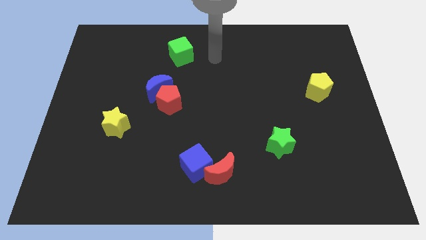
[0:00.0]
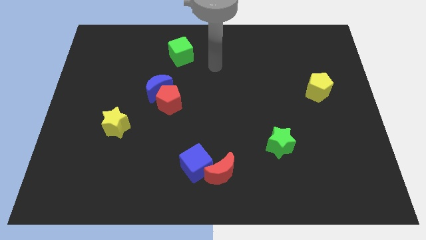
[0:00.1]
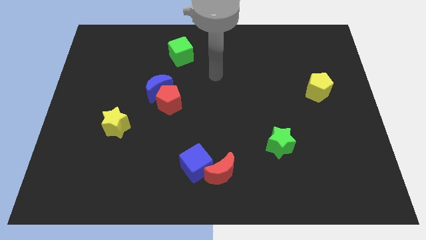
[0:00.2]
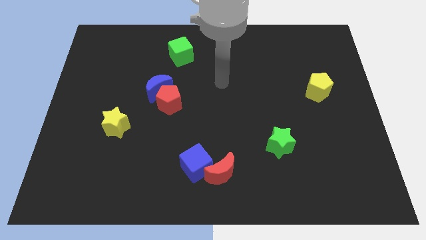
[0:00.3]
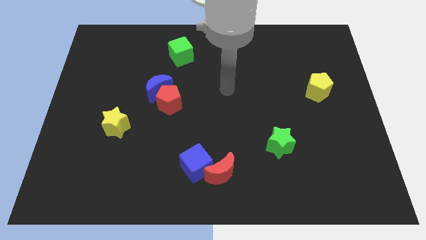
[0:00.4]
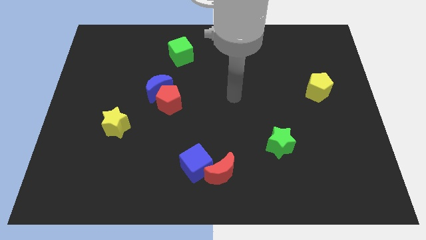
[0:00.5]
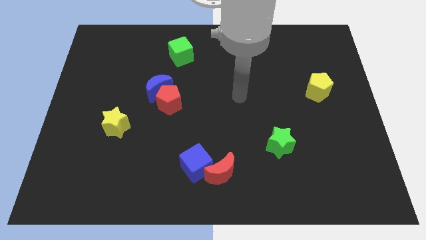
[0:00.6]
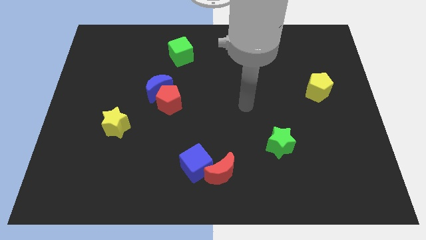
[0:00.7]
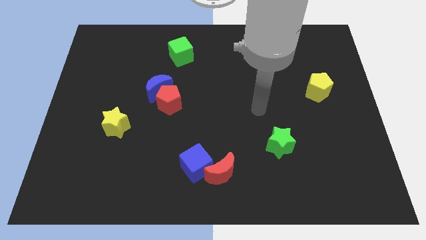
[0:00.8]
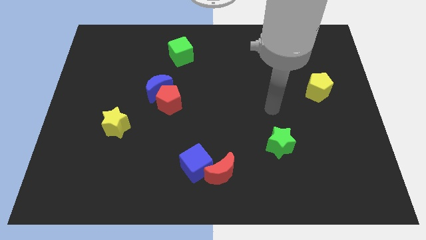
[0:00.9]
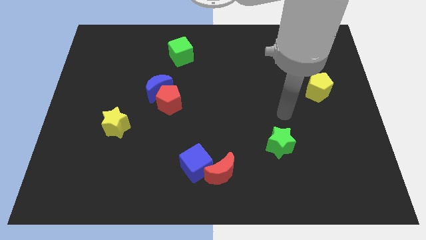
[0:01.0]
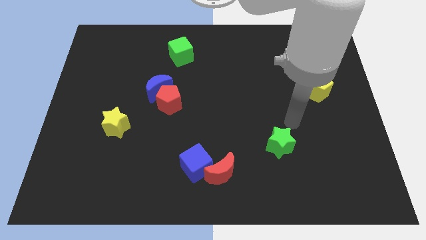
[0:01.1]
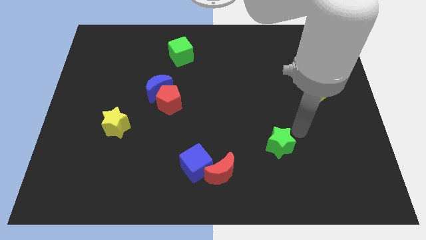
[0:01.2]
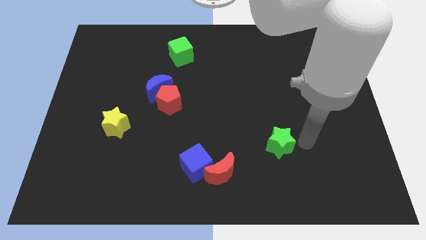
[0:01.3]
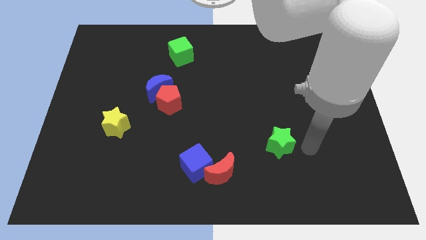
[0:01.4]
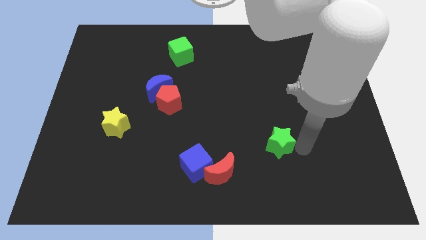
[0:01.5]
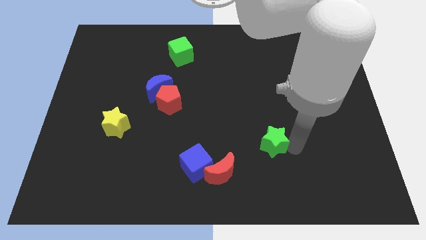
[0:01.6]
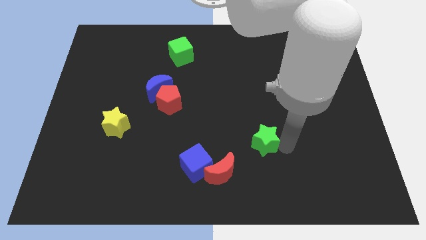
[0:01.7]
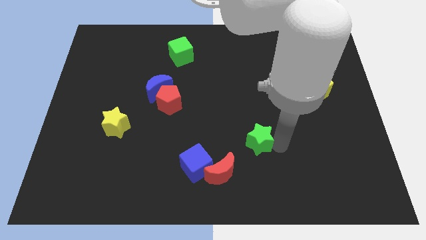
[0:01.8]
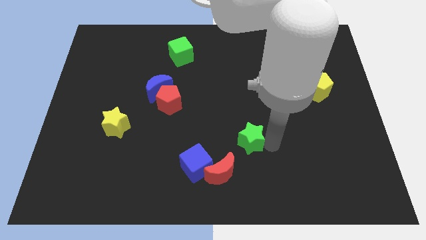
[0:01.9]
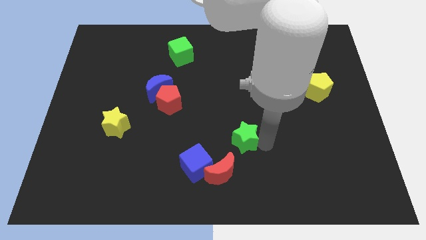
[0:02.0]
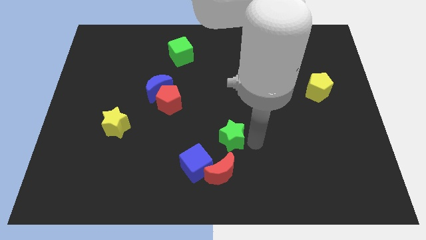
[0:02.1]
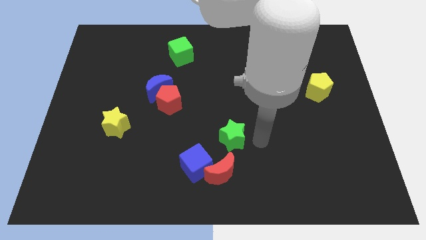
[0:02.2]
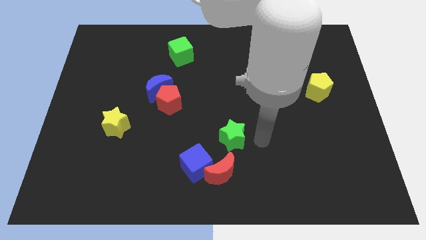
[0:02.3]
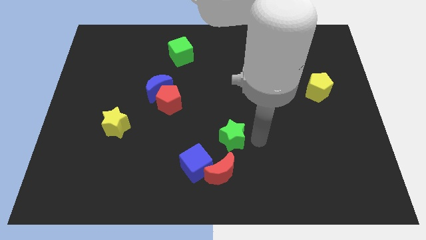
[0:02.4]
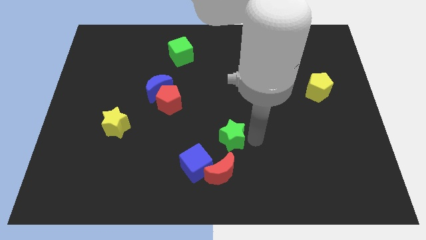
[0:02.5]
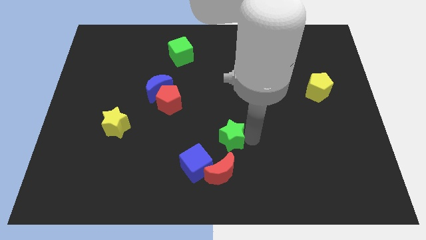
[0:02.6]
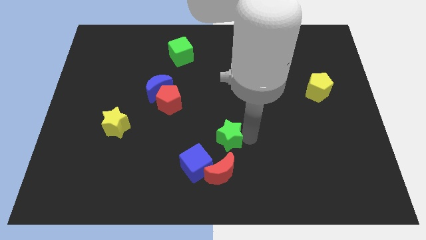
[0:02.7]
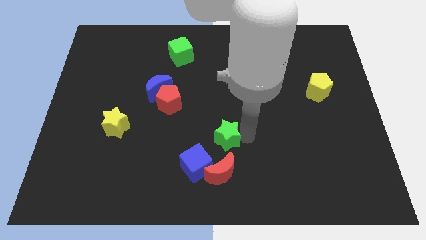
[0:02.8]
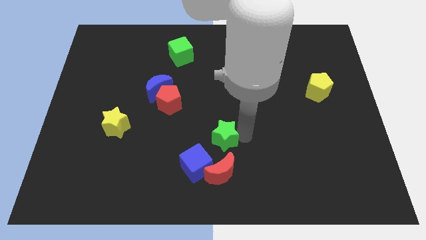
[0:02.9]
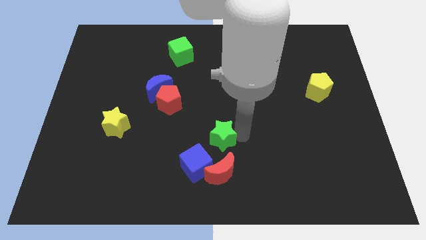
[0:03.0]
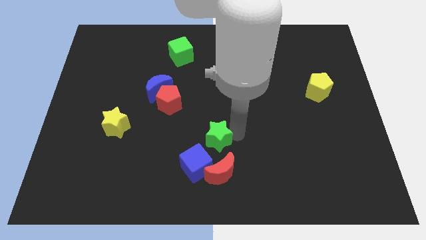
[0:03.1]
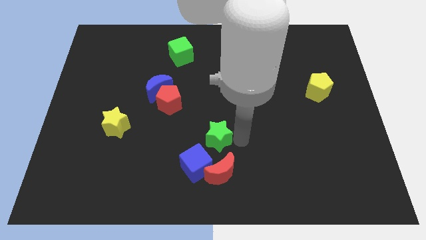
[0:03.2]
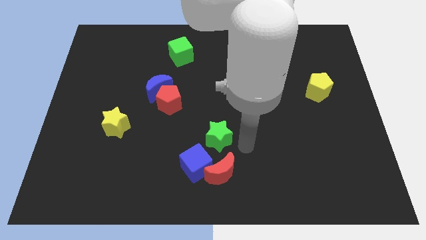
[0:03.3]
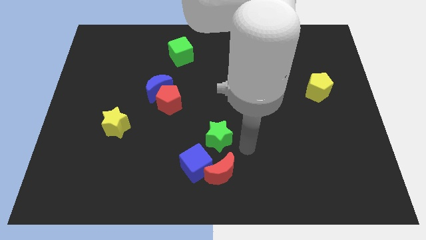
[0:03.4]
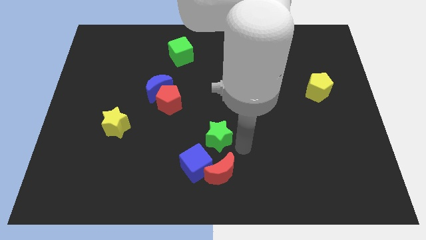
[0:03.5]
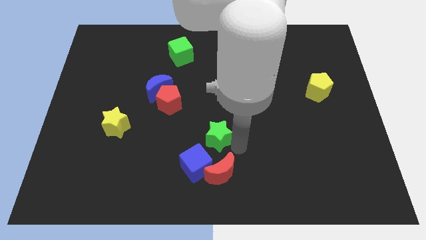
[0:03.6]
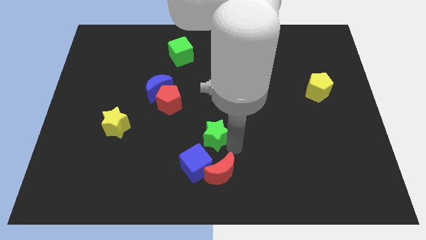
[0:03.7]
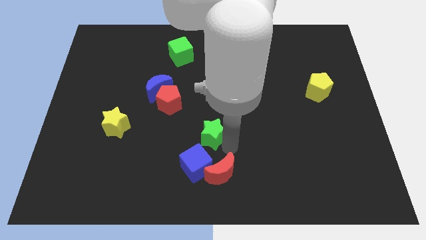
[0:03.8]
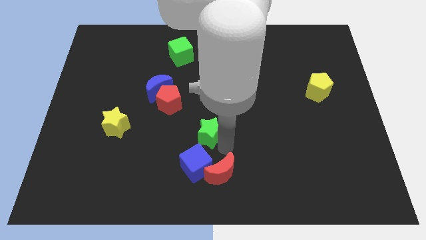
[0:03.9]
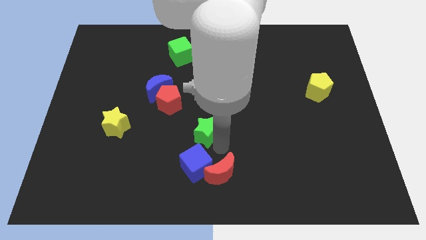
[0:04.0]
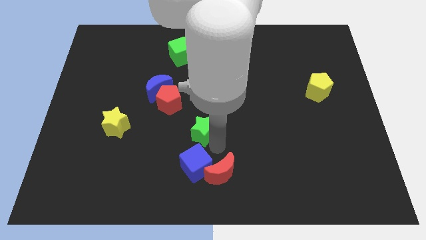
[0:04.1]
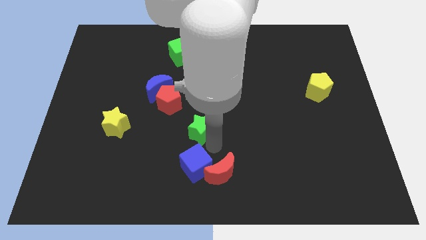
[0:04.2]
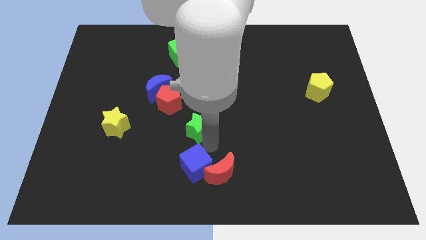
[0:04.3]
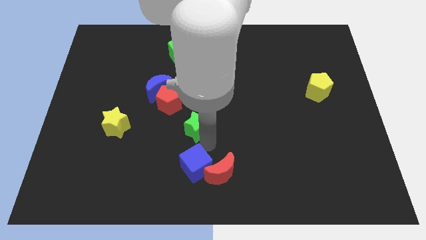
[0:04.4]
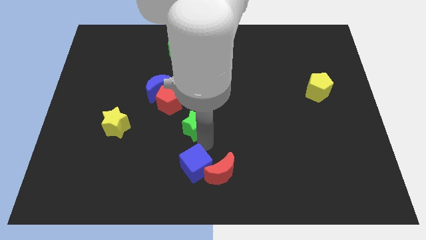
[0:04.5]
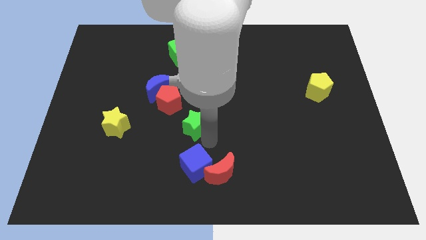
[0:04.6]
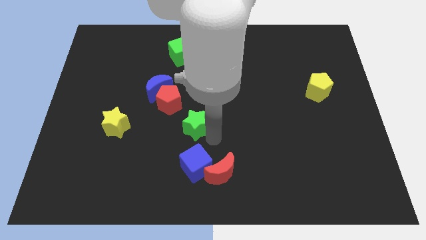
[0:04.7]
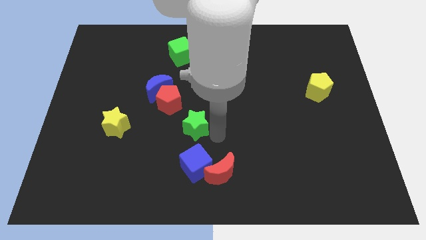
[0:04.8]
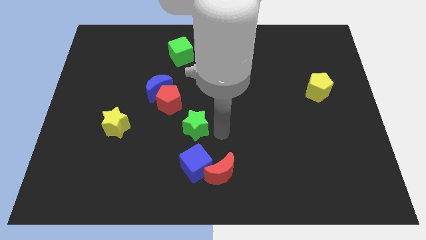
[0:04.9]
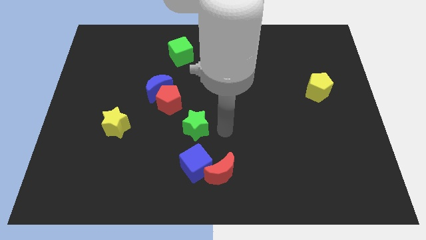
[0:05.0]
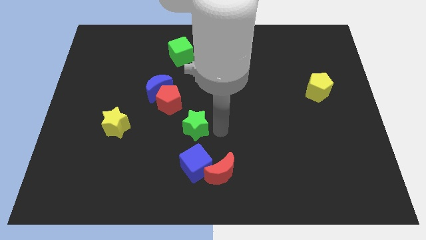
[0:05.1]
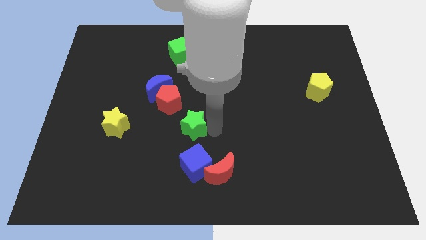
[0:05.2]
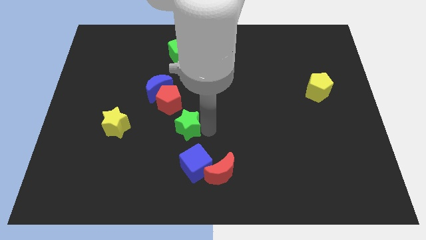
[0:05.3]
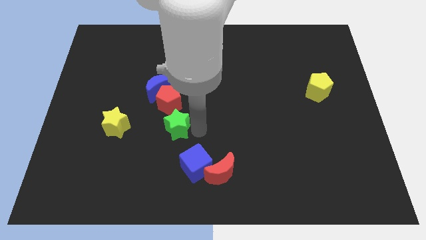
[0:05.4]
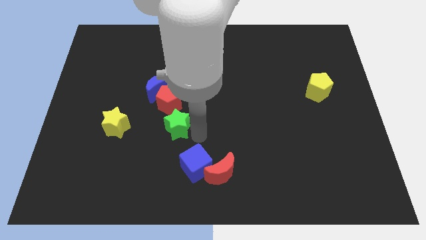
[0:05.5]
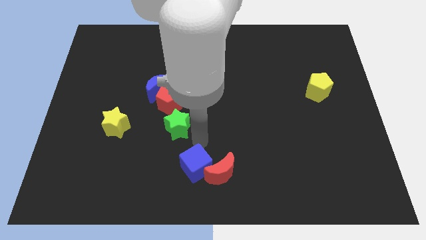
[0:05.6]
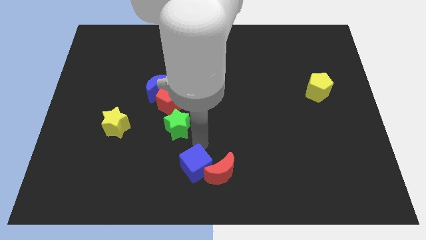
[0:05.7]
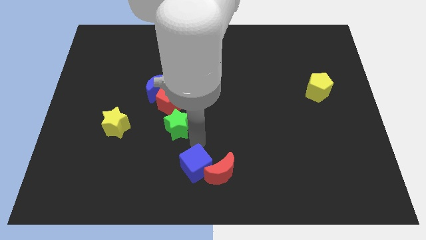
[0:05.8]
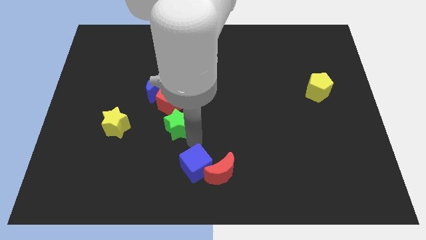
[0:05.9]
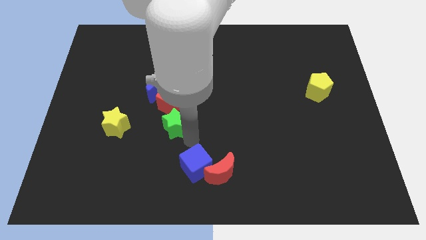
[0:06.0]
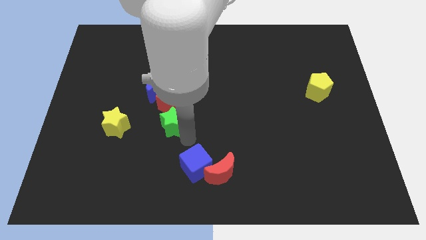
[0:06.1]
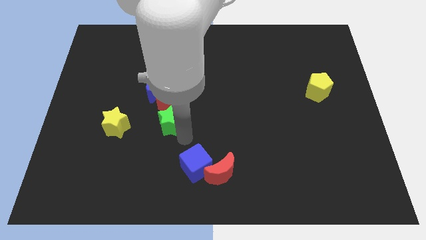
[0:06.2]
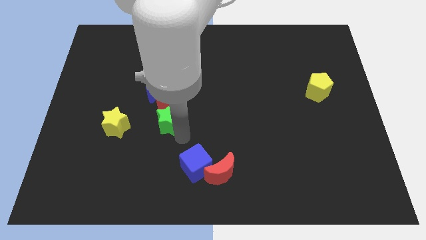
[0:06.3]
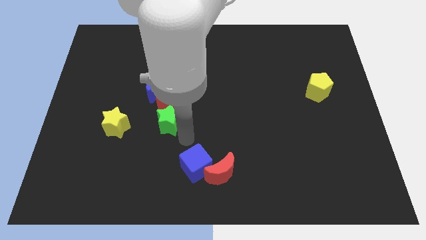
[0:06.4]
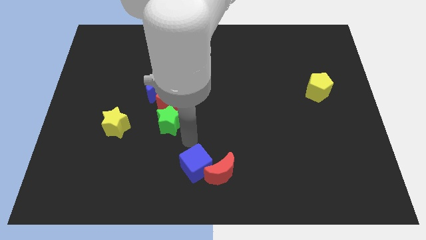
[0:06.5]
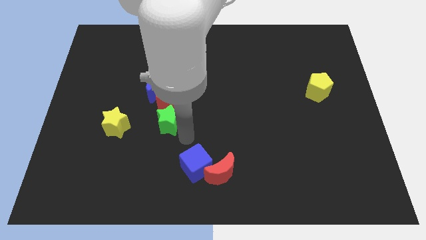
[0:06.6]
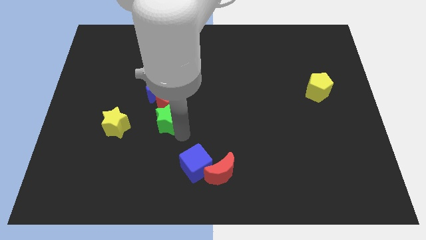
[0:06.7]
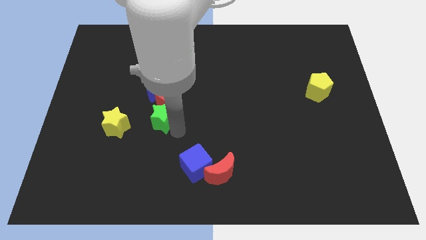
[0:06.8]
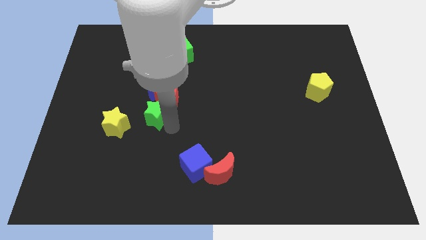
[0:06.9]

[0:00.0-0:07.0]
put the green star to the top right of the yellow star
